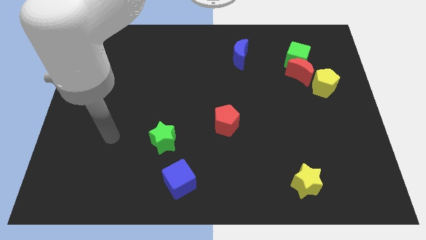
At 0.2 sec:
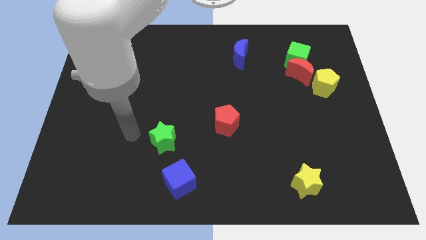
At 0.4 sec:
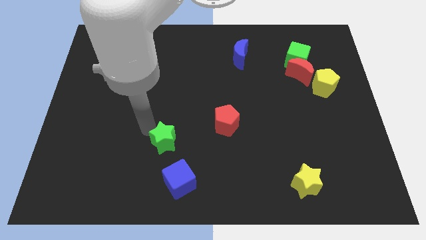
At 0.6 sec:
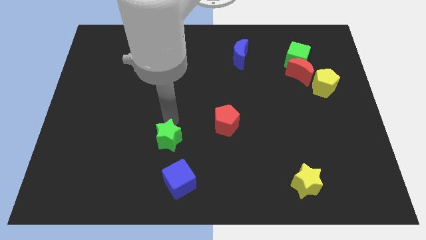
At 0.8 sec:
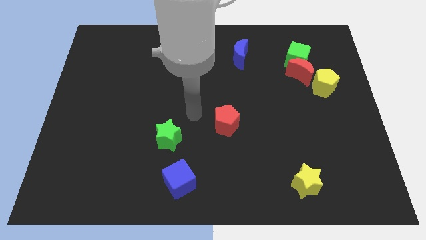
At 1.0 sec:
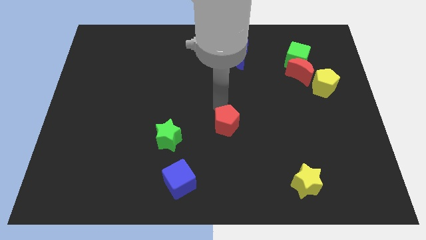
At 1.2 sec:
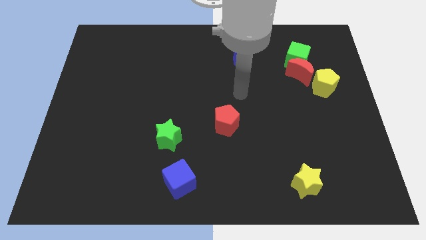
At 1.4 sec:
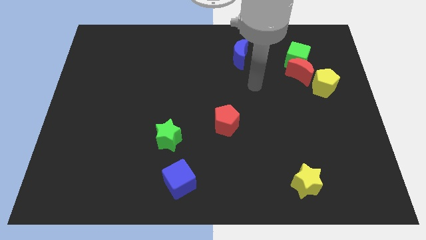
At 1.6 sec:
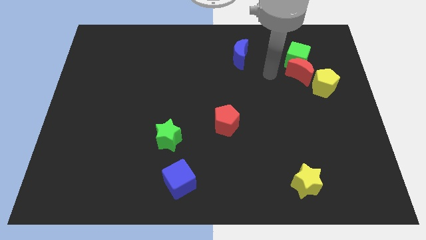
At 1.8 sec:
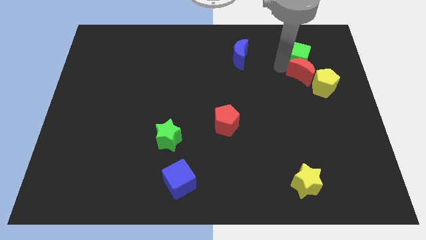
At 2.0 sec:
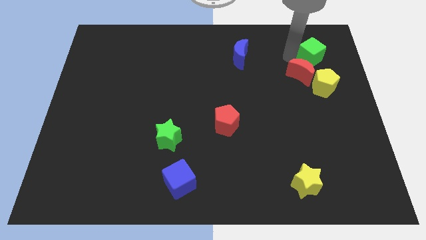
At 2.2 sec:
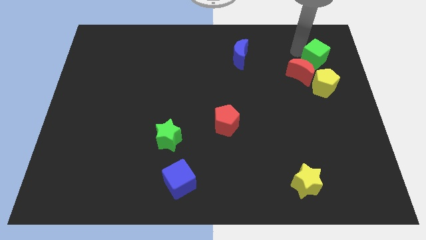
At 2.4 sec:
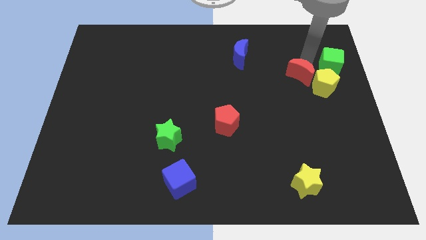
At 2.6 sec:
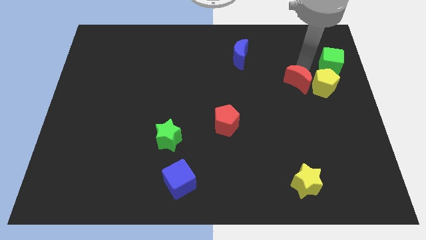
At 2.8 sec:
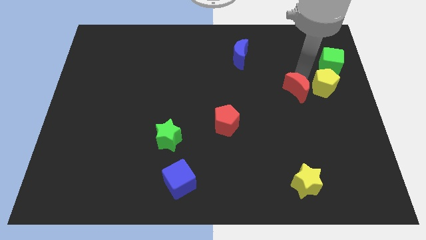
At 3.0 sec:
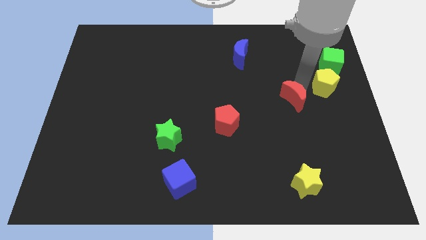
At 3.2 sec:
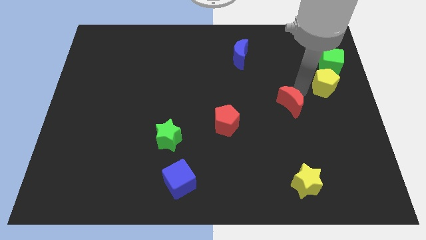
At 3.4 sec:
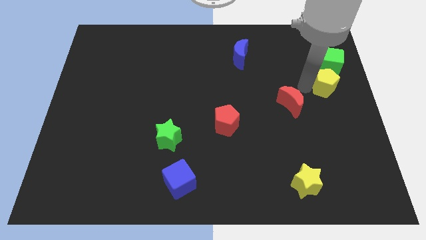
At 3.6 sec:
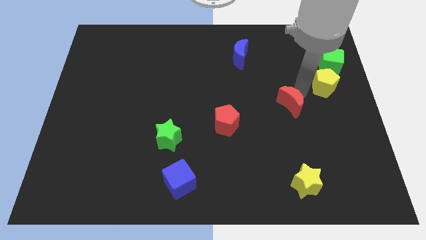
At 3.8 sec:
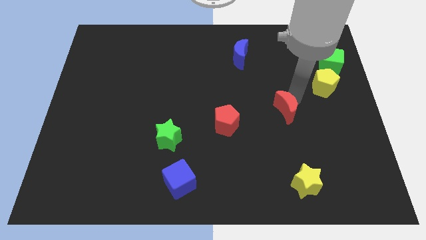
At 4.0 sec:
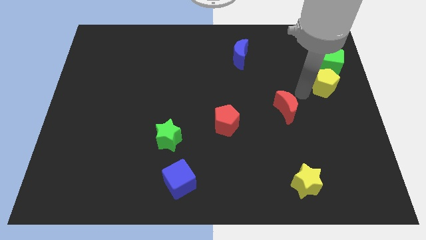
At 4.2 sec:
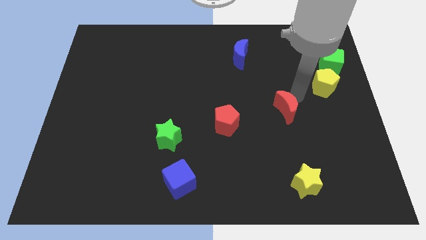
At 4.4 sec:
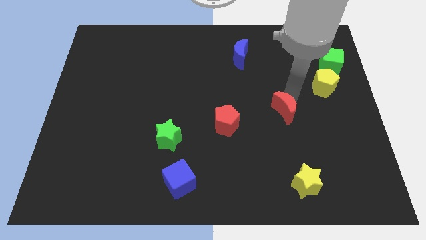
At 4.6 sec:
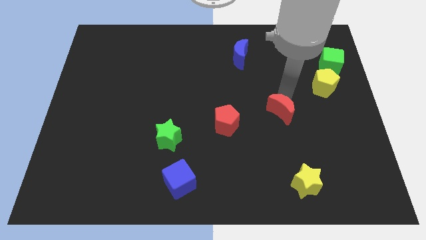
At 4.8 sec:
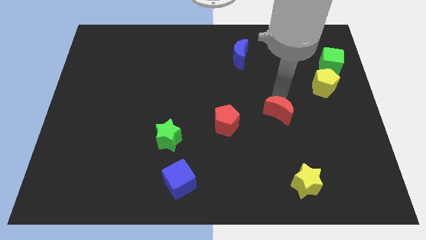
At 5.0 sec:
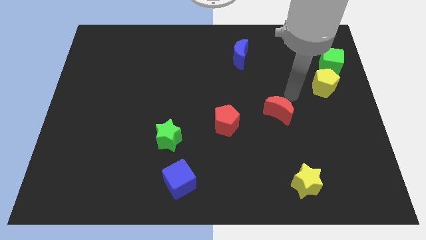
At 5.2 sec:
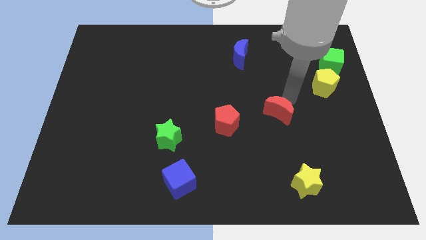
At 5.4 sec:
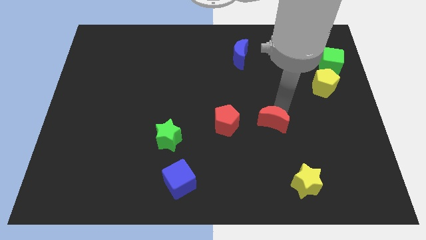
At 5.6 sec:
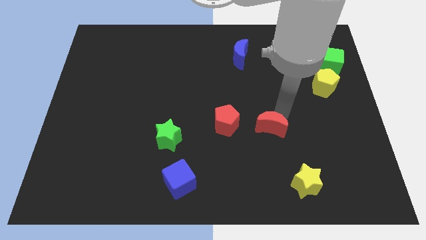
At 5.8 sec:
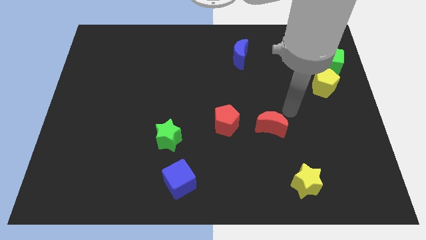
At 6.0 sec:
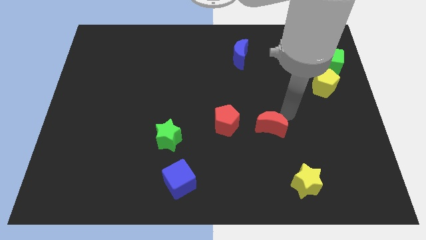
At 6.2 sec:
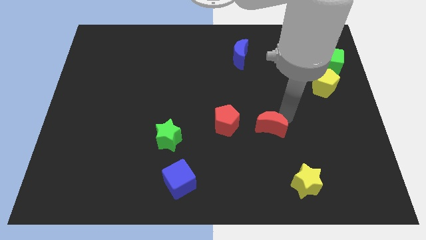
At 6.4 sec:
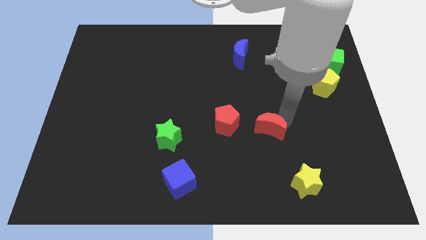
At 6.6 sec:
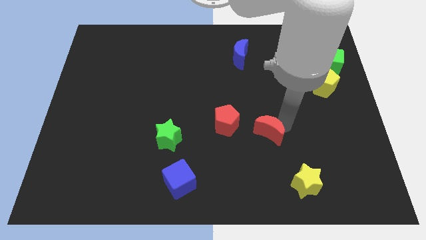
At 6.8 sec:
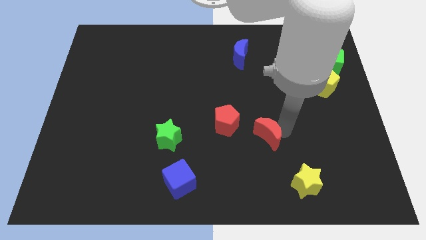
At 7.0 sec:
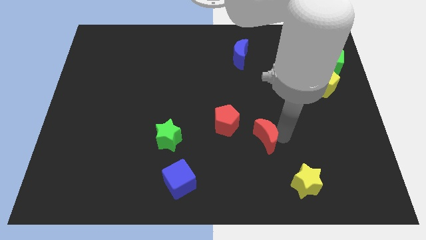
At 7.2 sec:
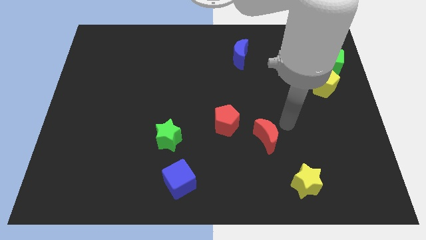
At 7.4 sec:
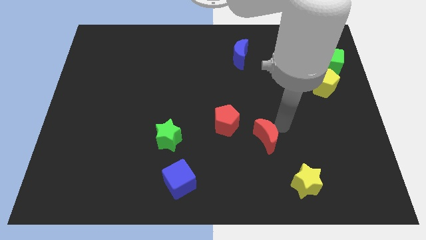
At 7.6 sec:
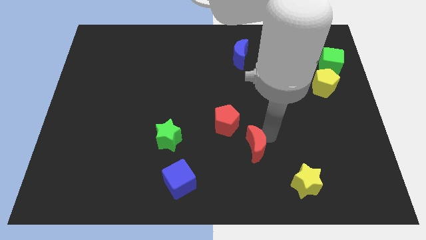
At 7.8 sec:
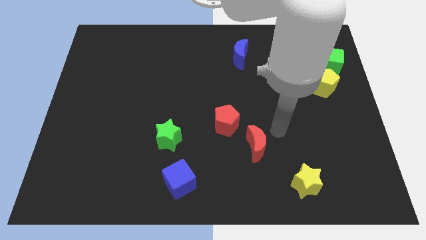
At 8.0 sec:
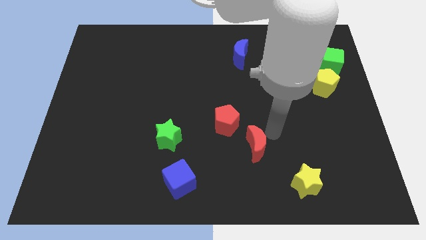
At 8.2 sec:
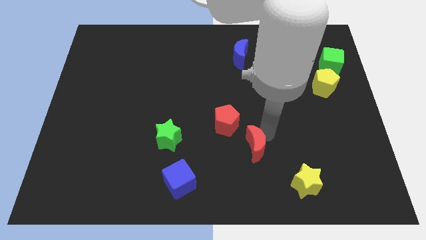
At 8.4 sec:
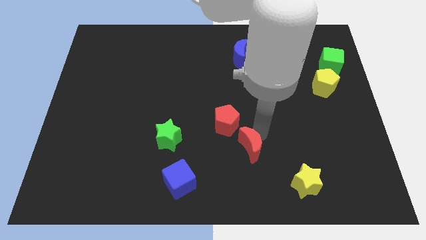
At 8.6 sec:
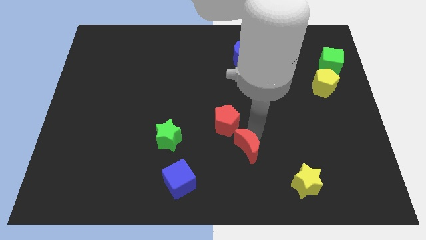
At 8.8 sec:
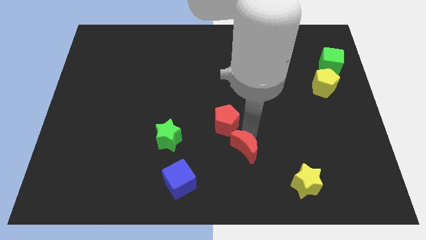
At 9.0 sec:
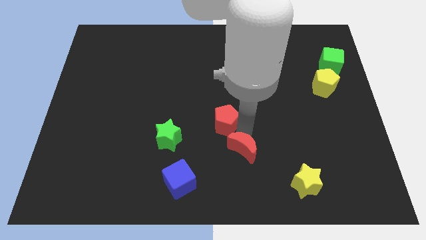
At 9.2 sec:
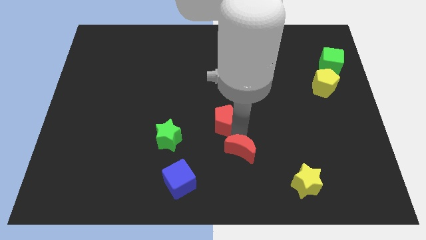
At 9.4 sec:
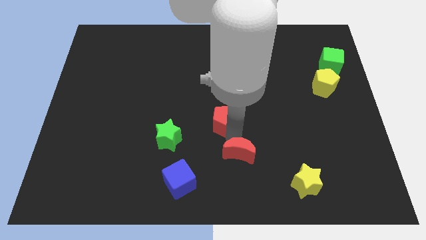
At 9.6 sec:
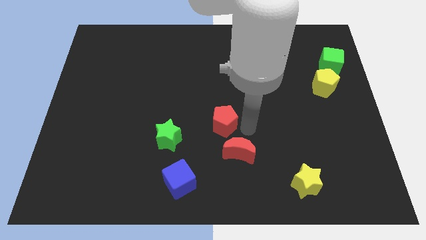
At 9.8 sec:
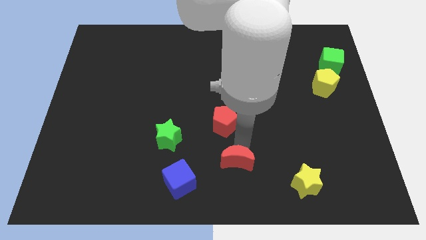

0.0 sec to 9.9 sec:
slide the red moon to the bottom

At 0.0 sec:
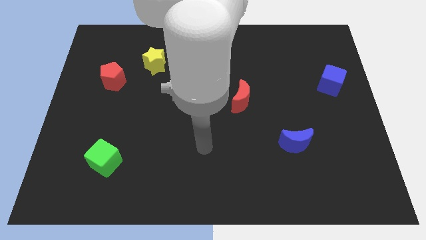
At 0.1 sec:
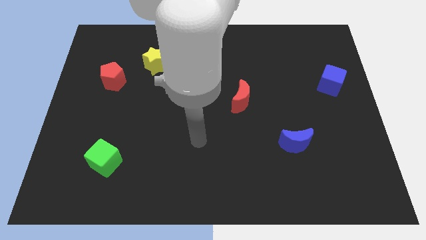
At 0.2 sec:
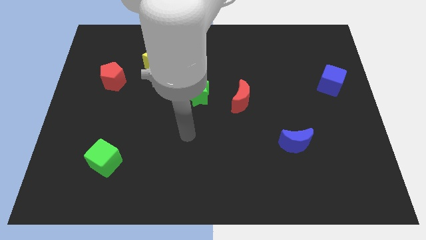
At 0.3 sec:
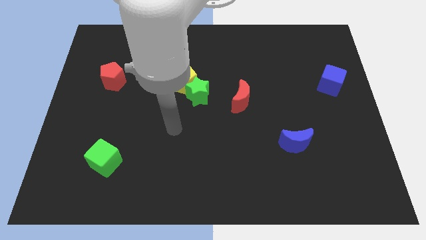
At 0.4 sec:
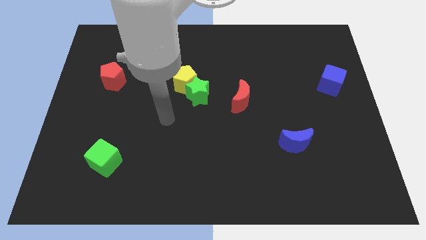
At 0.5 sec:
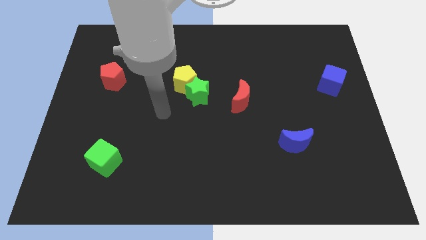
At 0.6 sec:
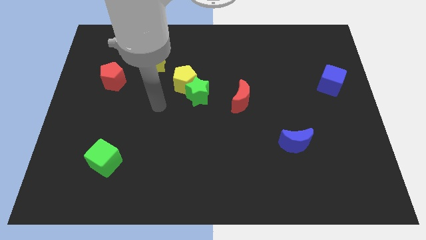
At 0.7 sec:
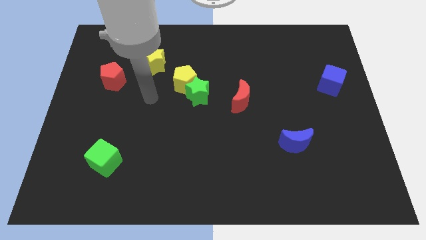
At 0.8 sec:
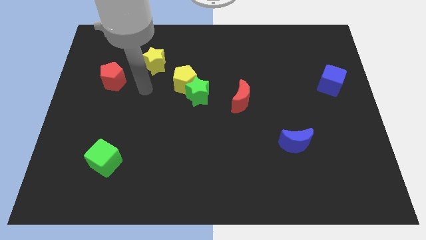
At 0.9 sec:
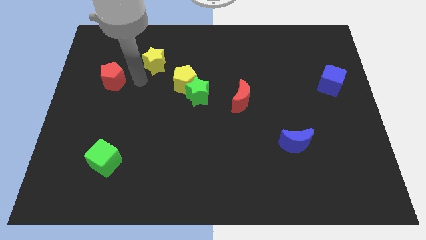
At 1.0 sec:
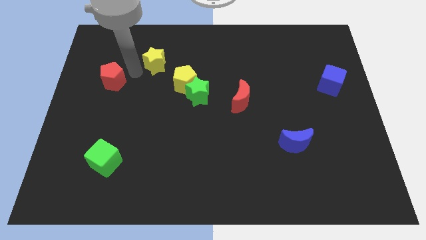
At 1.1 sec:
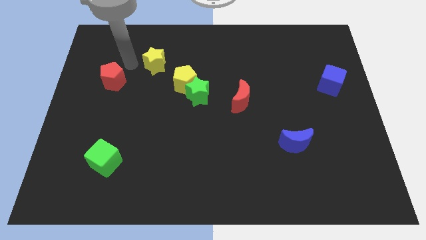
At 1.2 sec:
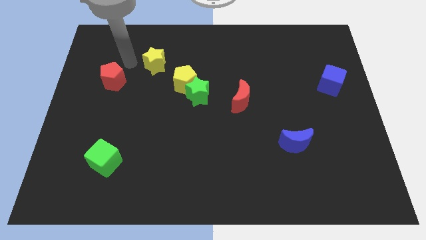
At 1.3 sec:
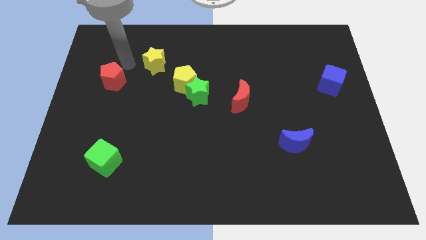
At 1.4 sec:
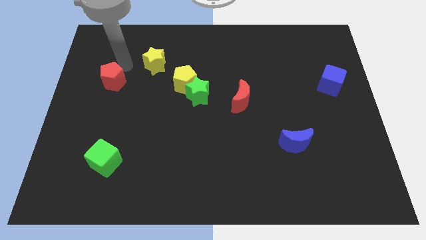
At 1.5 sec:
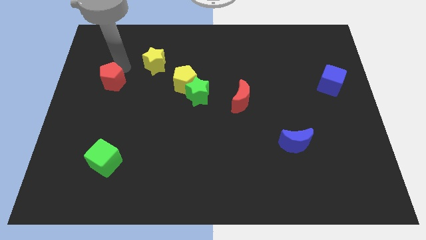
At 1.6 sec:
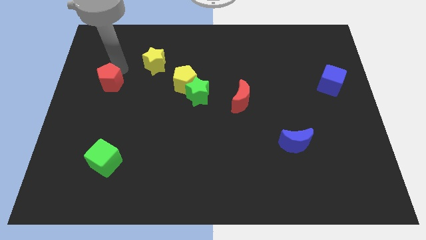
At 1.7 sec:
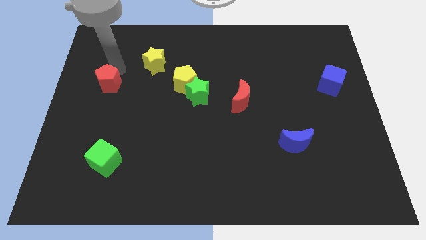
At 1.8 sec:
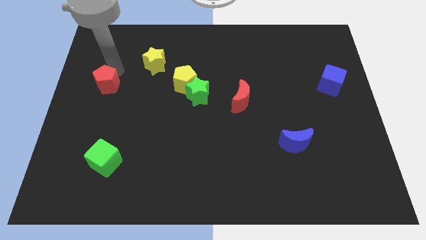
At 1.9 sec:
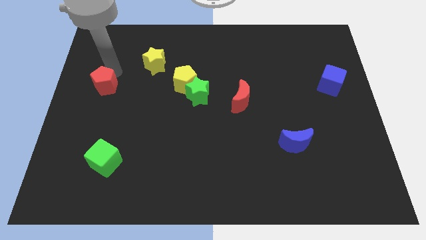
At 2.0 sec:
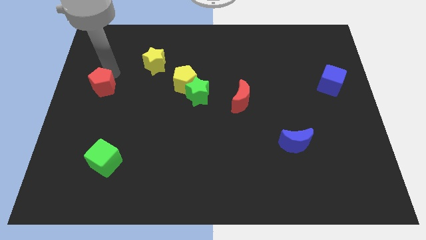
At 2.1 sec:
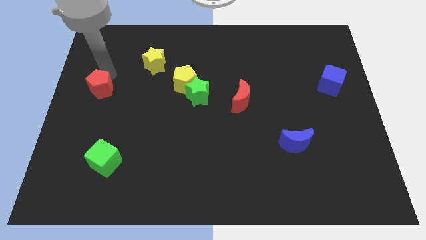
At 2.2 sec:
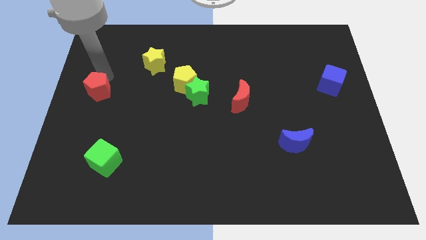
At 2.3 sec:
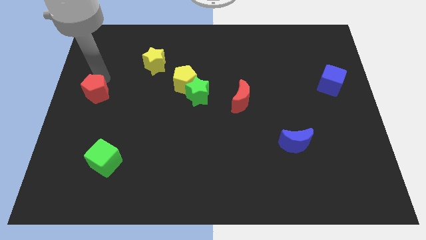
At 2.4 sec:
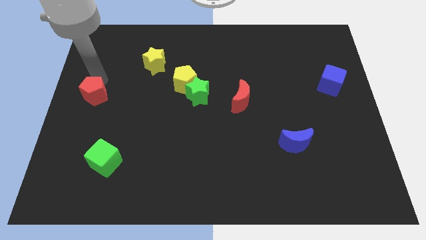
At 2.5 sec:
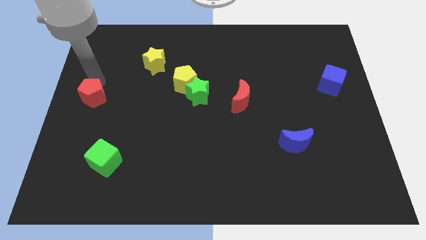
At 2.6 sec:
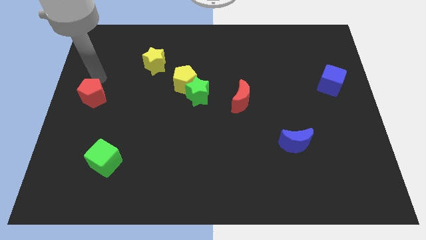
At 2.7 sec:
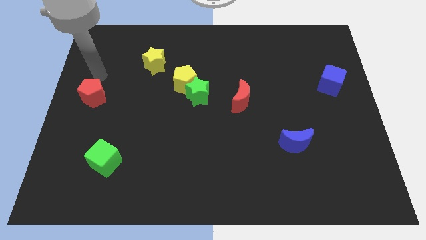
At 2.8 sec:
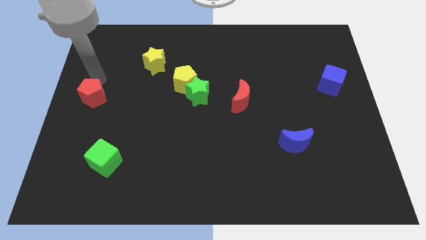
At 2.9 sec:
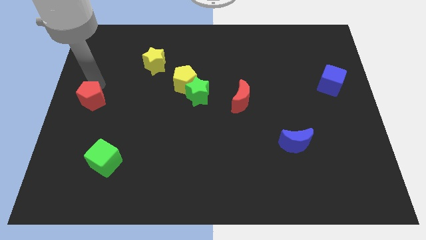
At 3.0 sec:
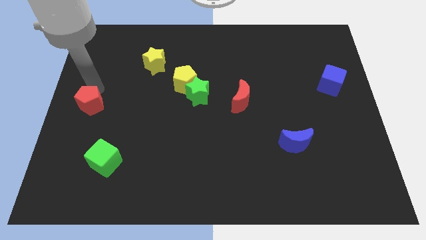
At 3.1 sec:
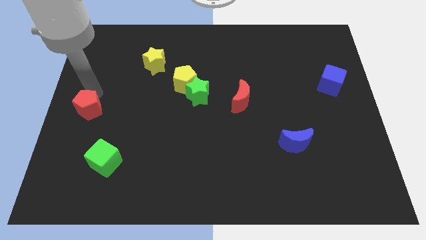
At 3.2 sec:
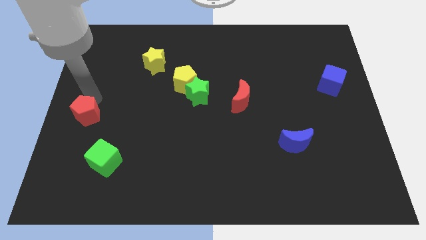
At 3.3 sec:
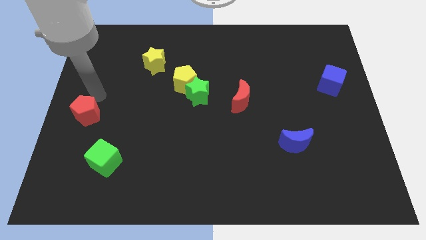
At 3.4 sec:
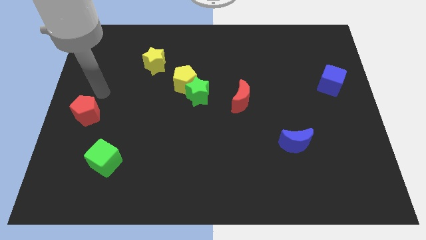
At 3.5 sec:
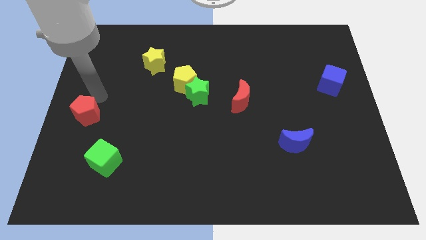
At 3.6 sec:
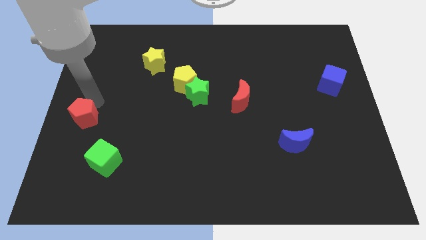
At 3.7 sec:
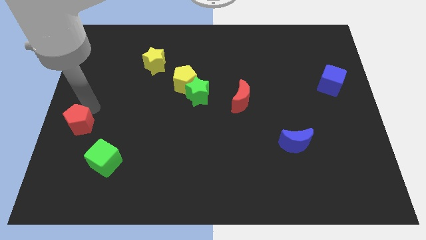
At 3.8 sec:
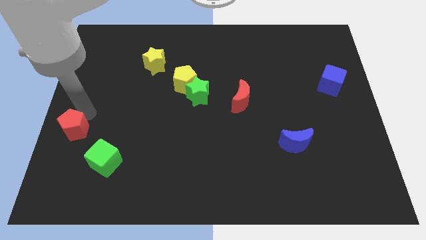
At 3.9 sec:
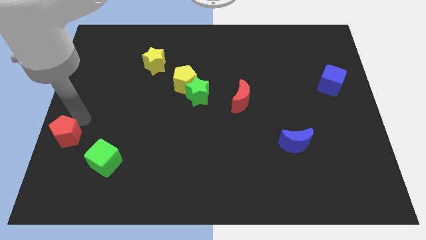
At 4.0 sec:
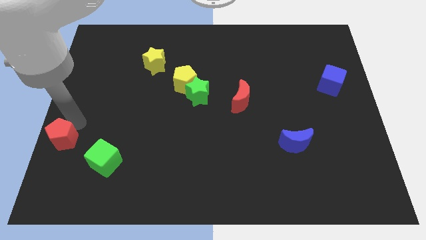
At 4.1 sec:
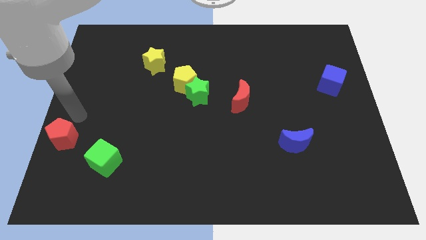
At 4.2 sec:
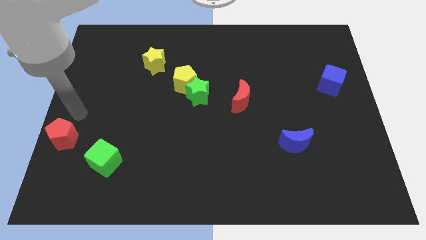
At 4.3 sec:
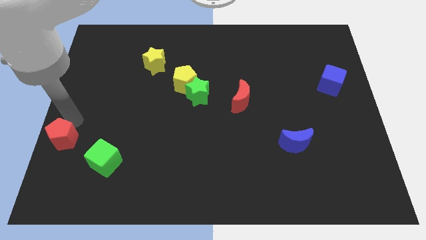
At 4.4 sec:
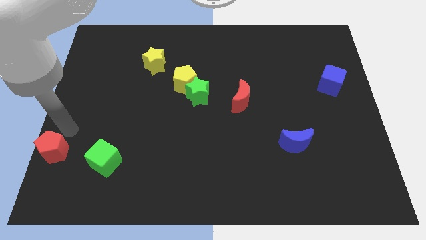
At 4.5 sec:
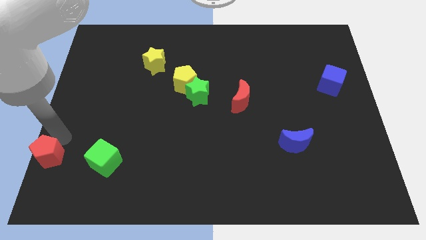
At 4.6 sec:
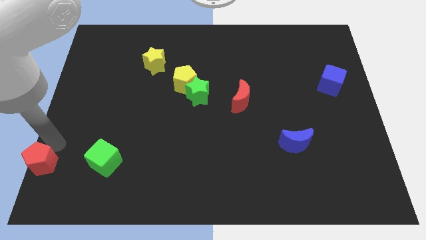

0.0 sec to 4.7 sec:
push the red pentagon to the bottom left of the board
